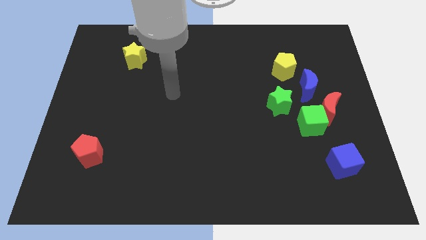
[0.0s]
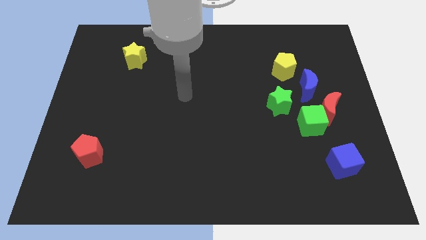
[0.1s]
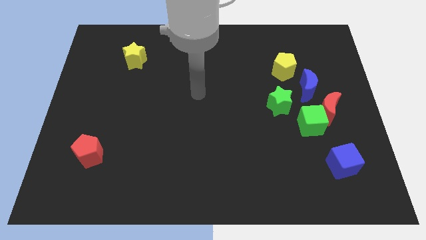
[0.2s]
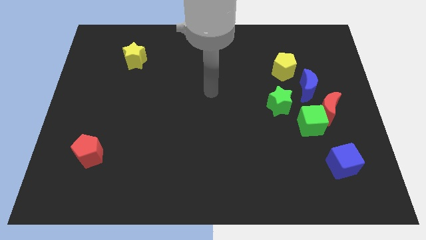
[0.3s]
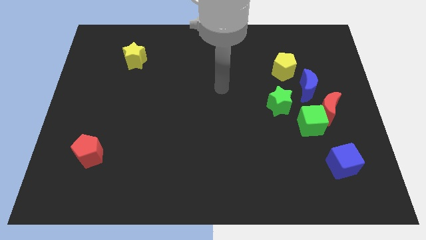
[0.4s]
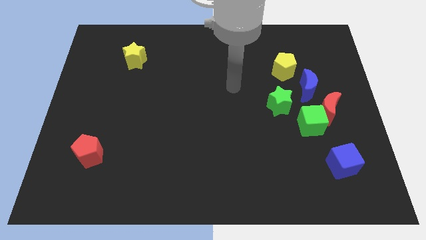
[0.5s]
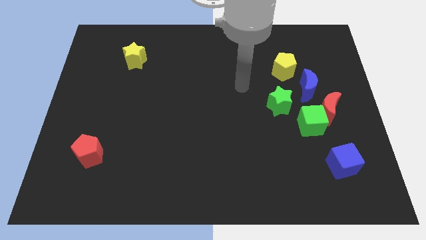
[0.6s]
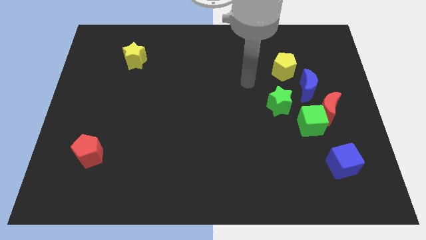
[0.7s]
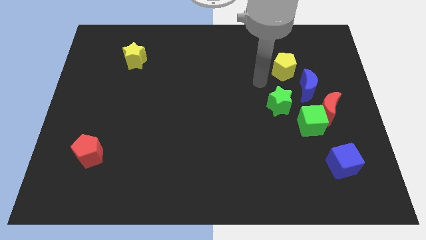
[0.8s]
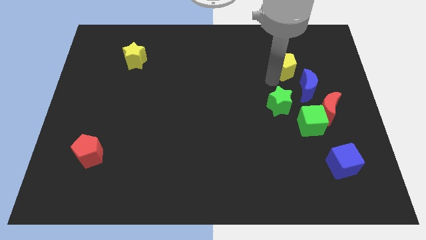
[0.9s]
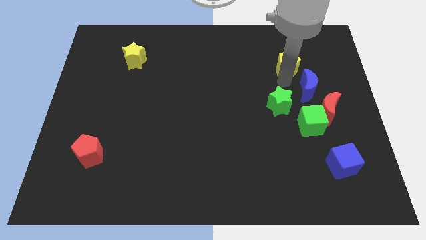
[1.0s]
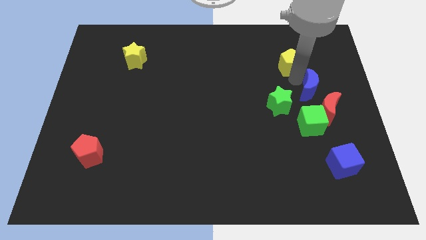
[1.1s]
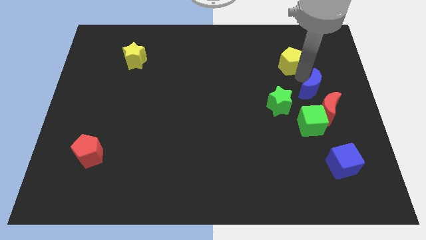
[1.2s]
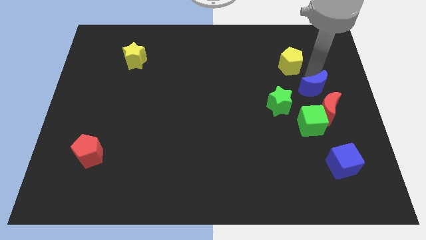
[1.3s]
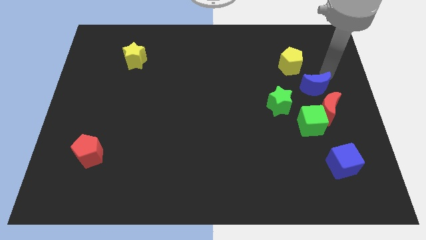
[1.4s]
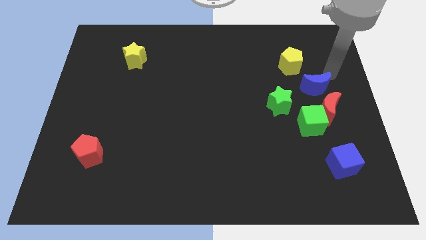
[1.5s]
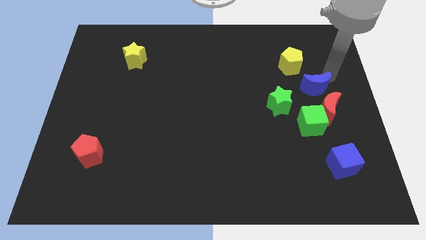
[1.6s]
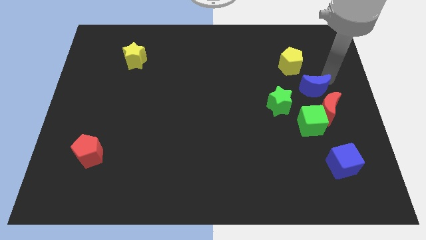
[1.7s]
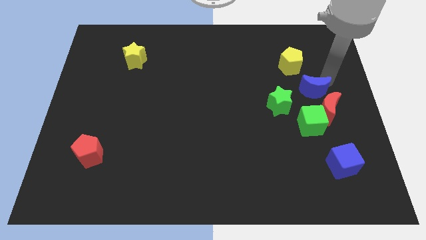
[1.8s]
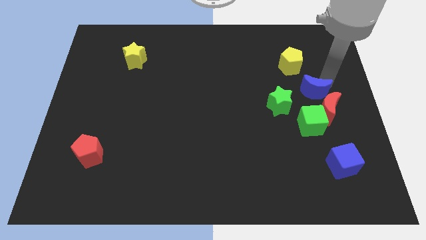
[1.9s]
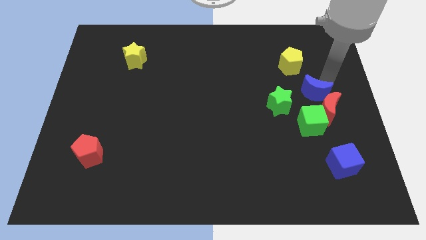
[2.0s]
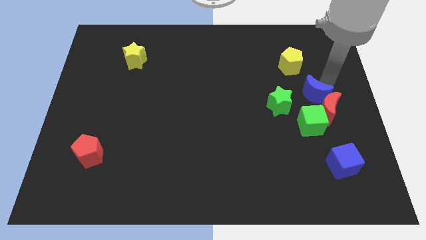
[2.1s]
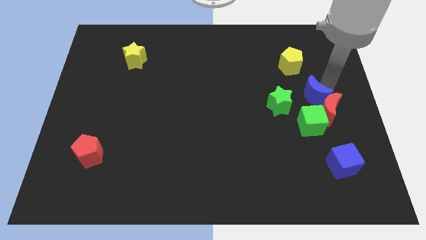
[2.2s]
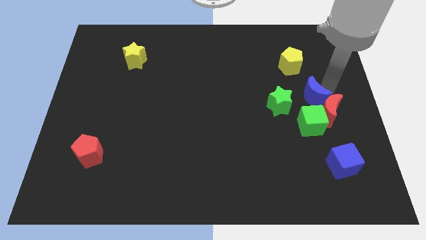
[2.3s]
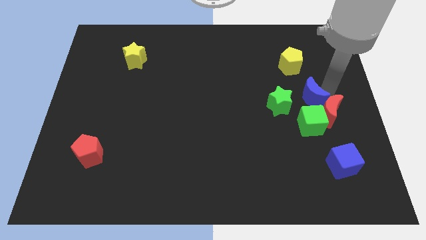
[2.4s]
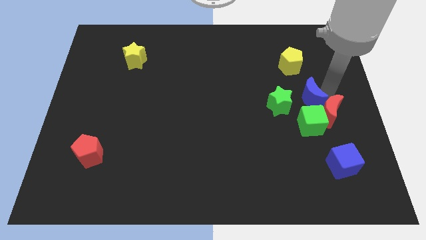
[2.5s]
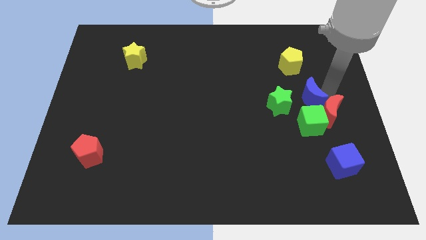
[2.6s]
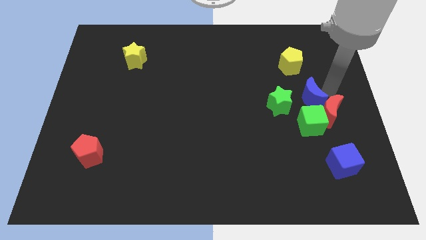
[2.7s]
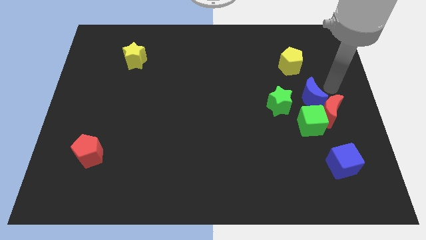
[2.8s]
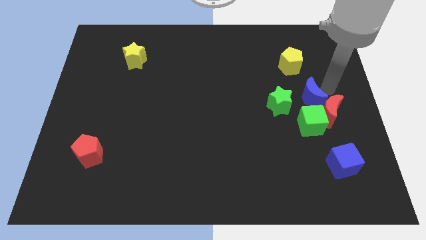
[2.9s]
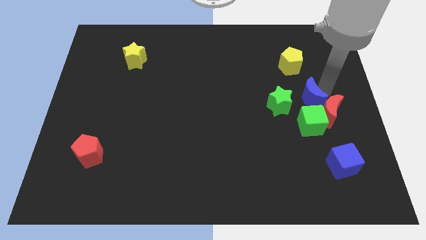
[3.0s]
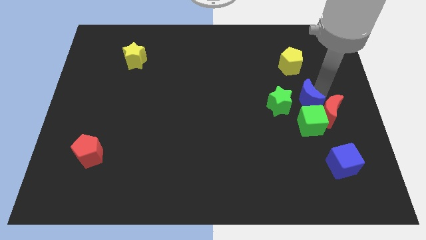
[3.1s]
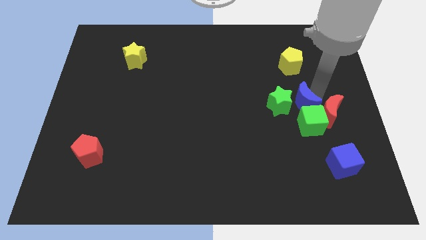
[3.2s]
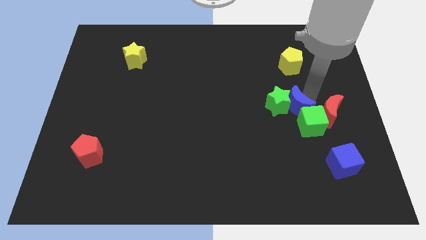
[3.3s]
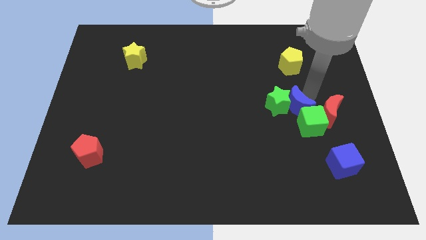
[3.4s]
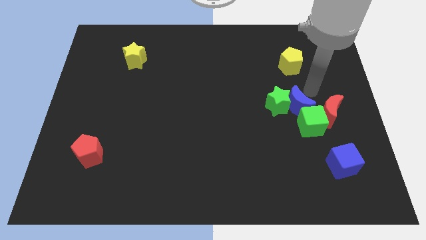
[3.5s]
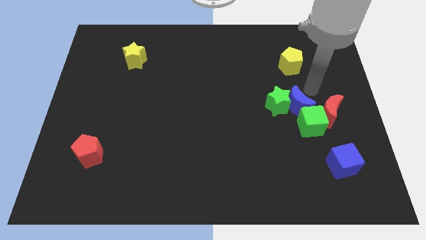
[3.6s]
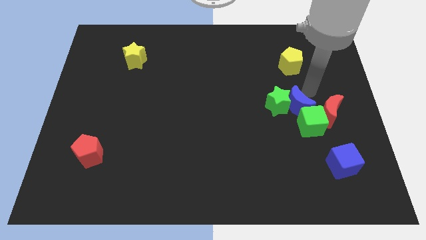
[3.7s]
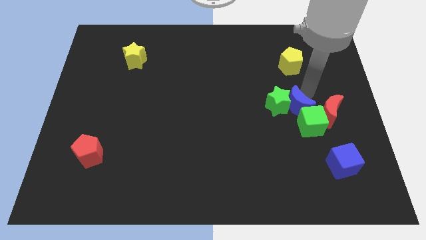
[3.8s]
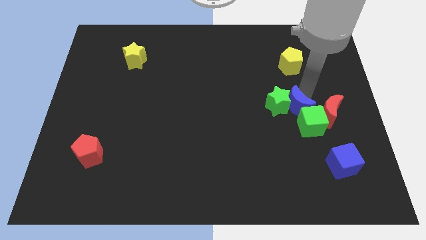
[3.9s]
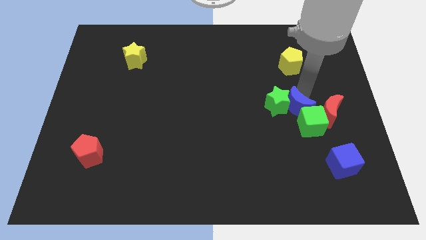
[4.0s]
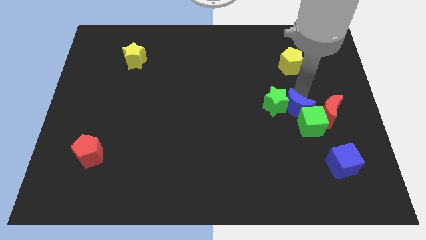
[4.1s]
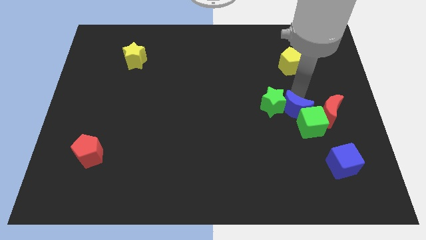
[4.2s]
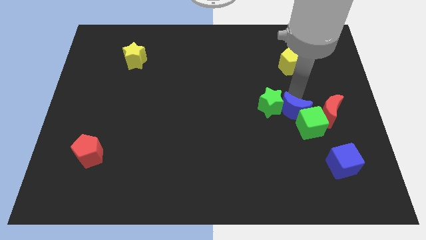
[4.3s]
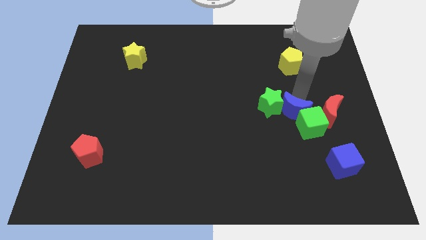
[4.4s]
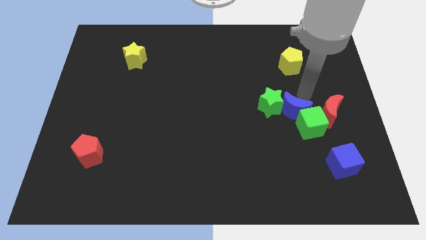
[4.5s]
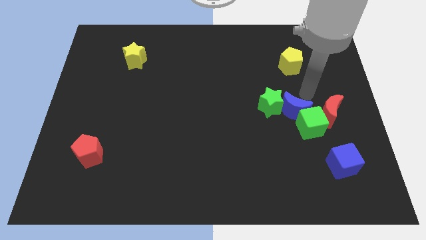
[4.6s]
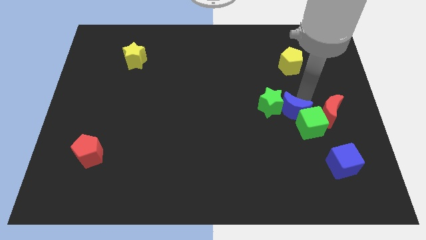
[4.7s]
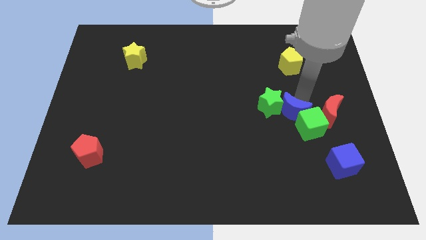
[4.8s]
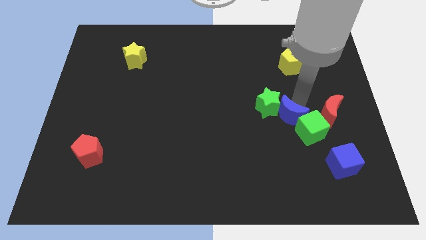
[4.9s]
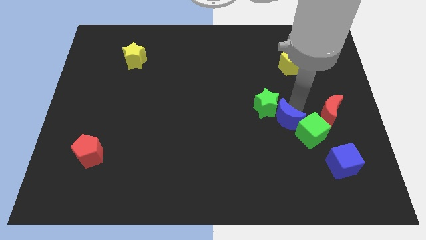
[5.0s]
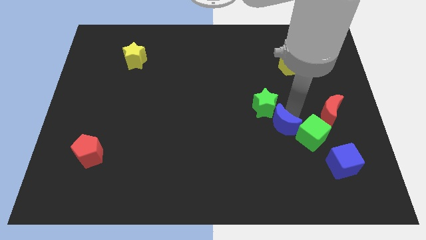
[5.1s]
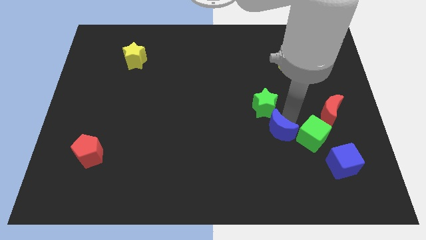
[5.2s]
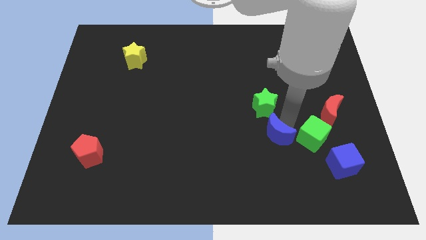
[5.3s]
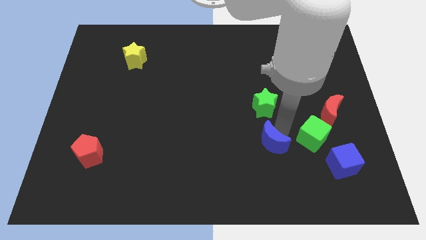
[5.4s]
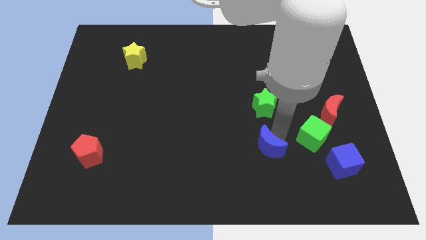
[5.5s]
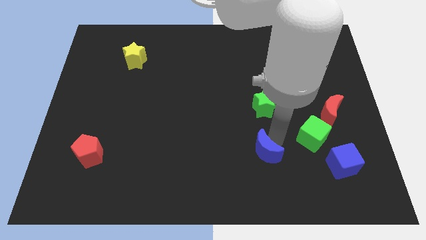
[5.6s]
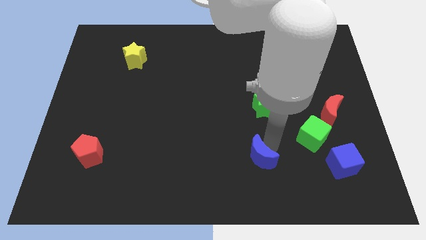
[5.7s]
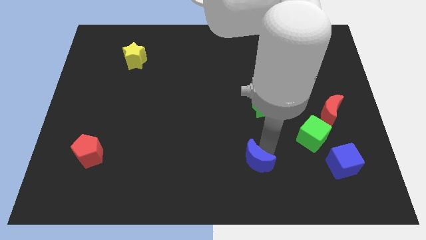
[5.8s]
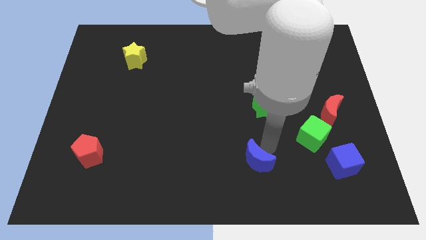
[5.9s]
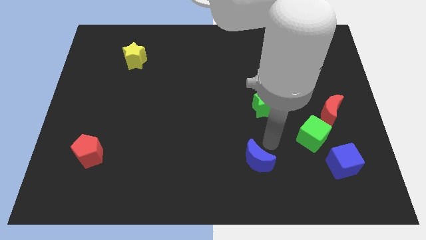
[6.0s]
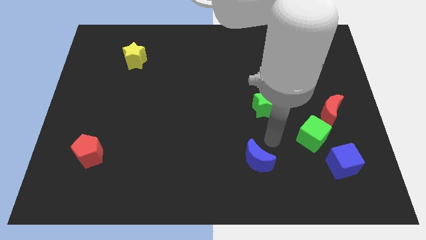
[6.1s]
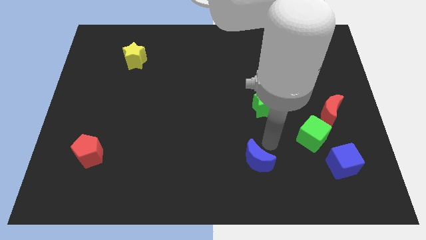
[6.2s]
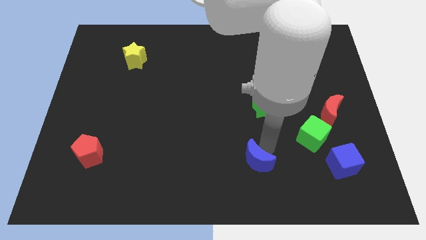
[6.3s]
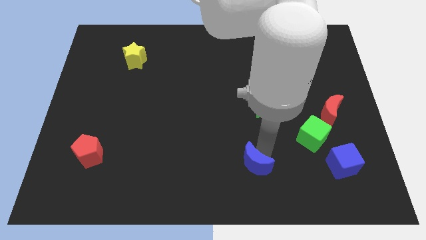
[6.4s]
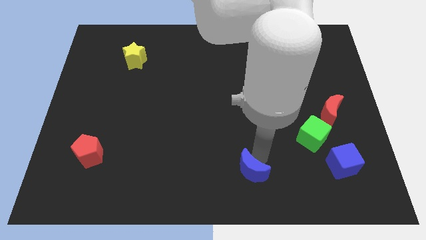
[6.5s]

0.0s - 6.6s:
slide the blue moon to the bottom

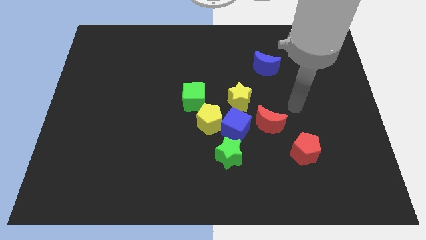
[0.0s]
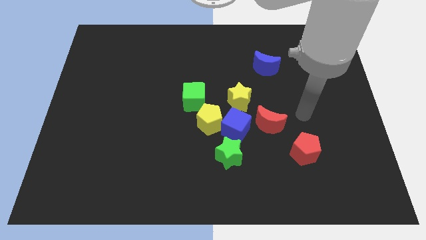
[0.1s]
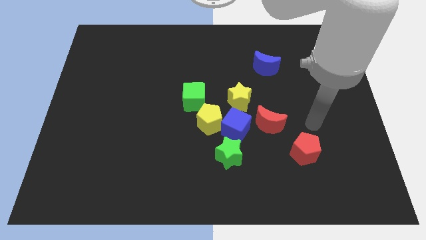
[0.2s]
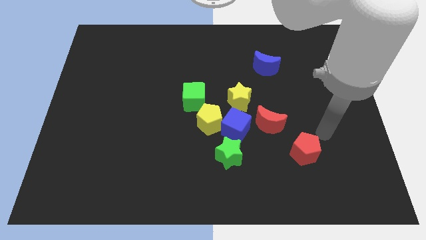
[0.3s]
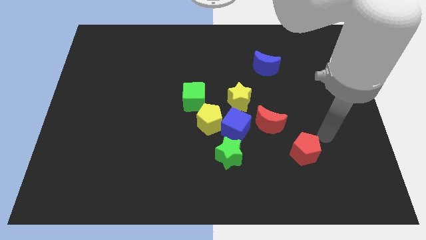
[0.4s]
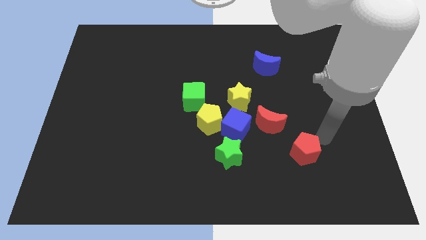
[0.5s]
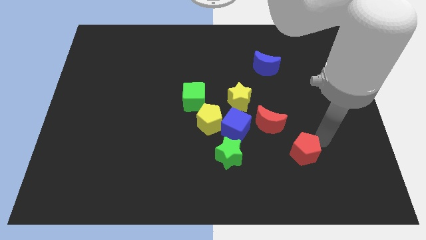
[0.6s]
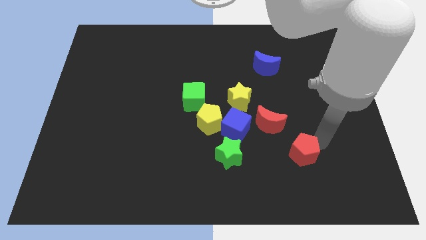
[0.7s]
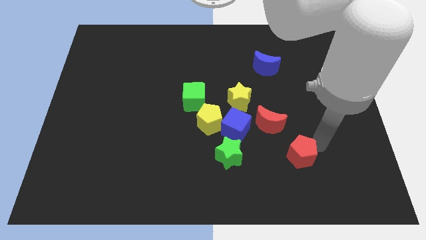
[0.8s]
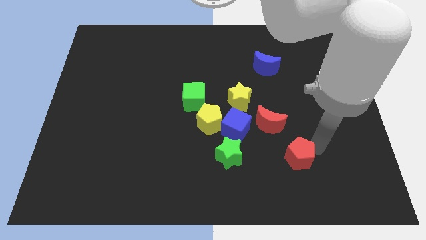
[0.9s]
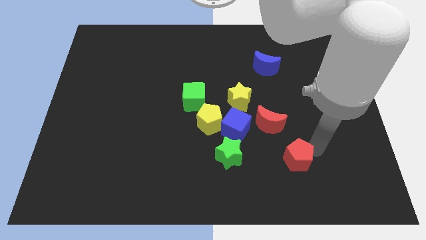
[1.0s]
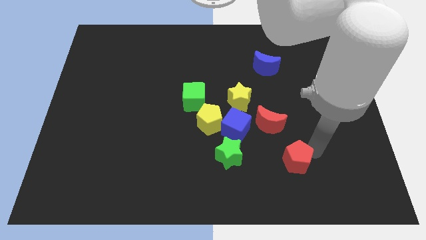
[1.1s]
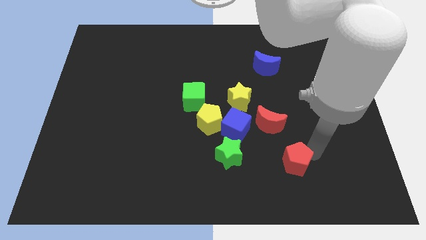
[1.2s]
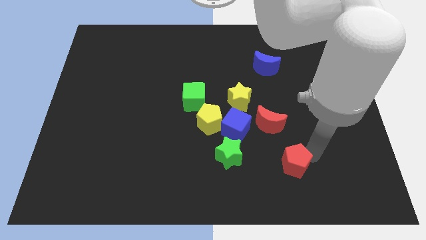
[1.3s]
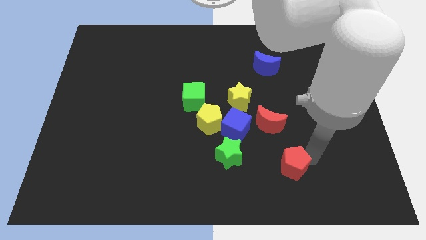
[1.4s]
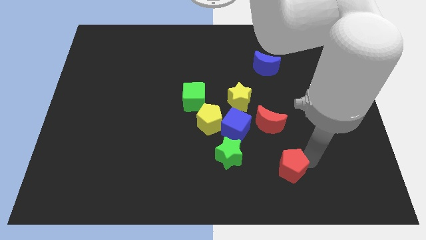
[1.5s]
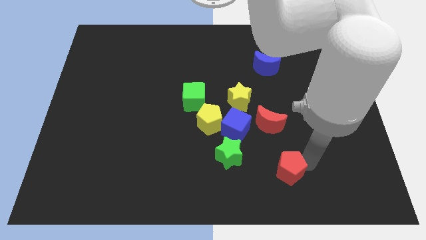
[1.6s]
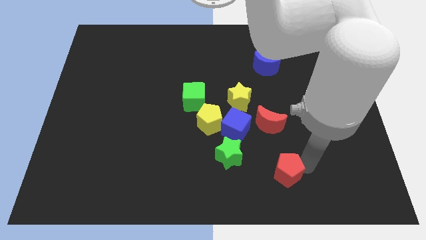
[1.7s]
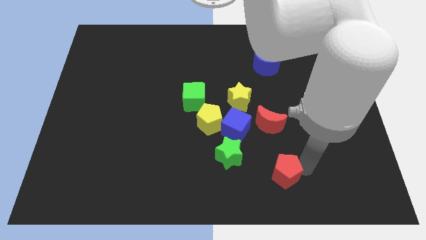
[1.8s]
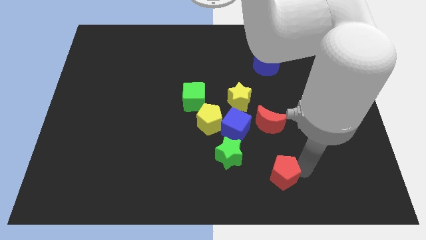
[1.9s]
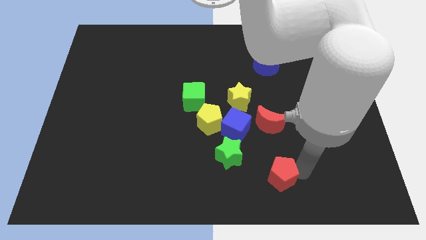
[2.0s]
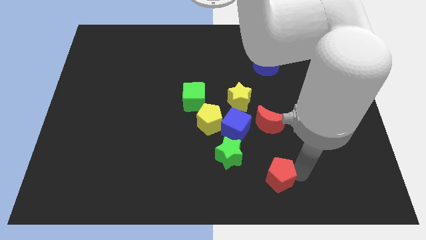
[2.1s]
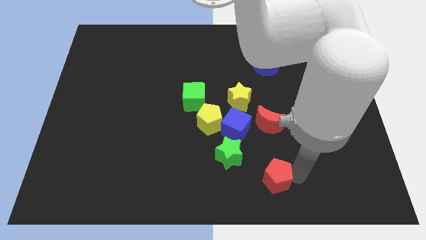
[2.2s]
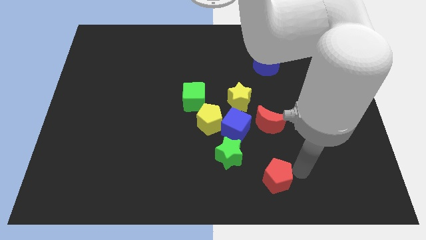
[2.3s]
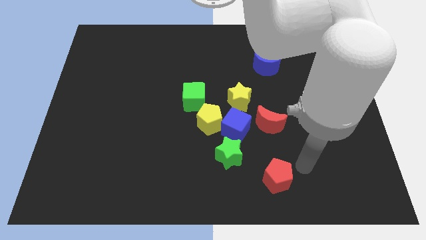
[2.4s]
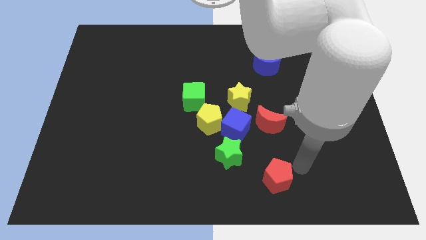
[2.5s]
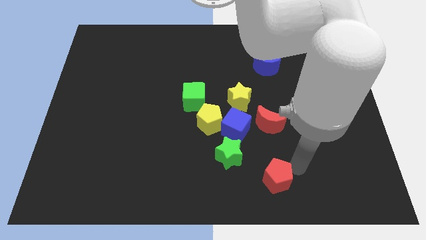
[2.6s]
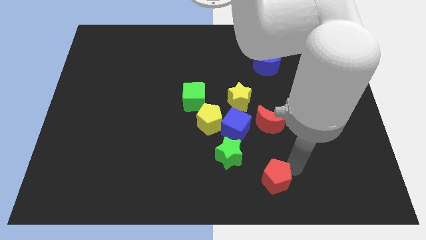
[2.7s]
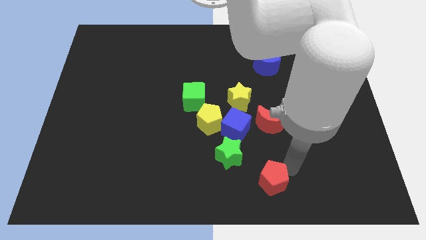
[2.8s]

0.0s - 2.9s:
move the red pentagon to the bottom side
